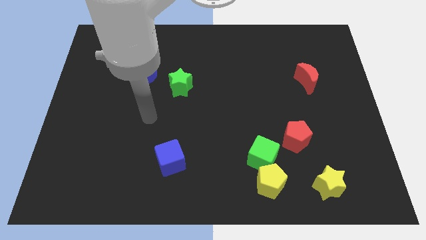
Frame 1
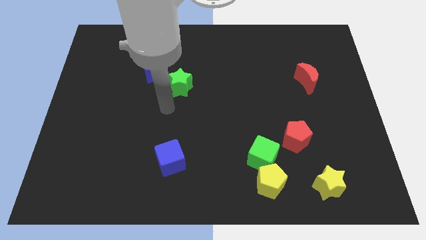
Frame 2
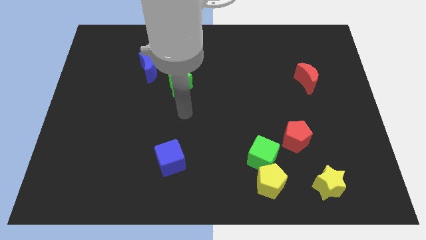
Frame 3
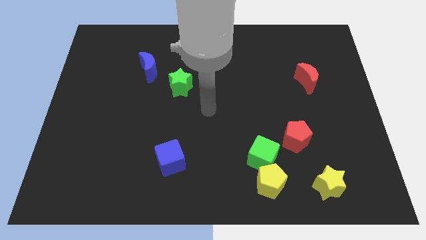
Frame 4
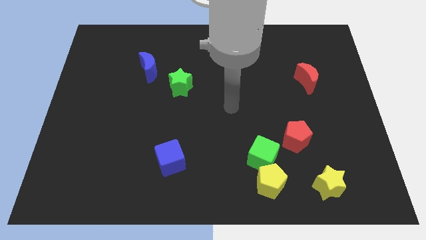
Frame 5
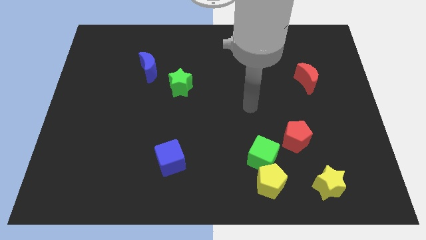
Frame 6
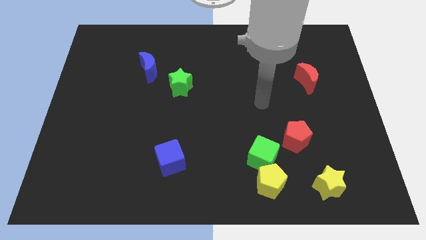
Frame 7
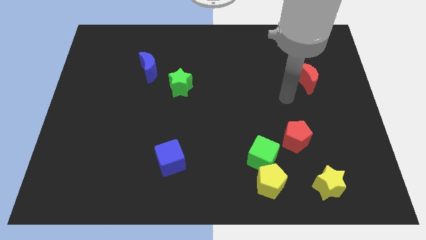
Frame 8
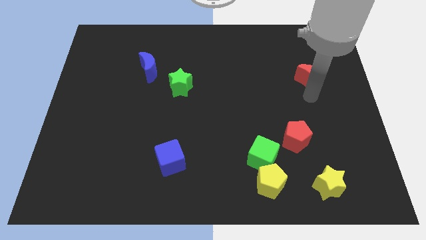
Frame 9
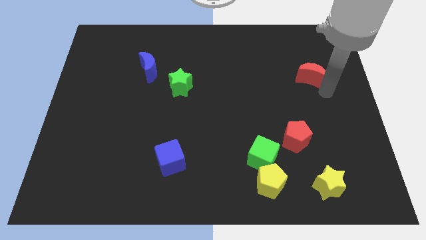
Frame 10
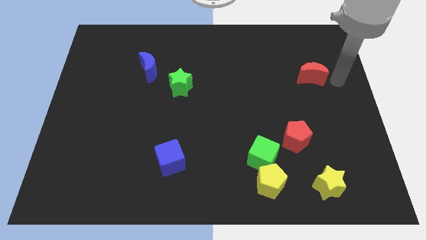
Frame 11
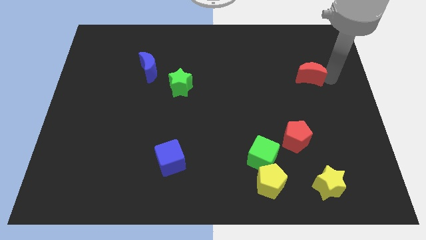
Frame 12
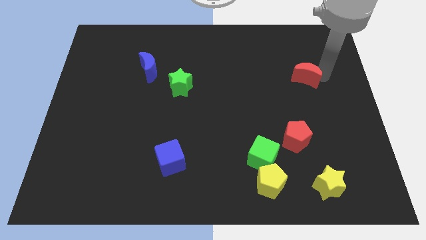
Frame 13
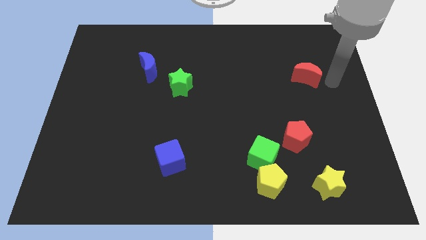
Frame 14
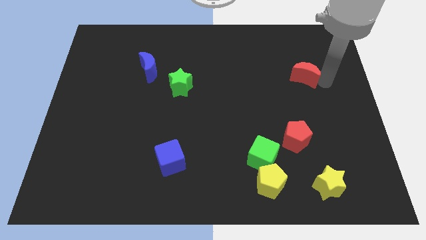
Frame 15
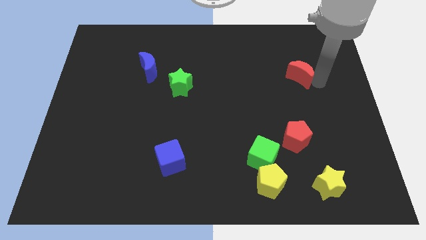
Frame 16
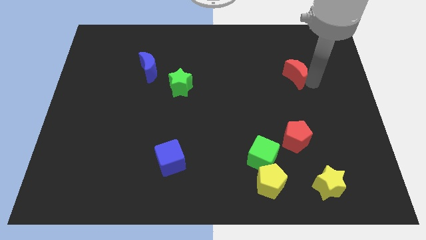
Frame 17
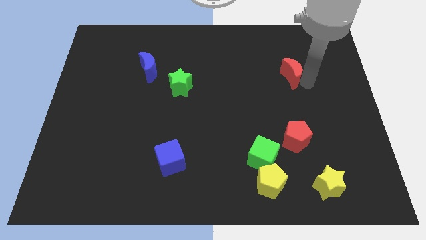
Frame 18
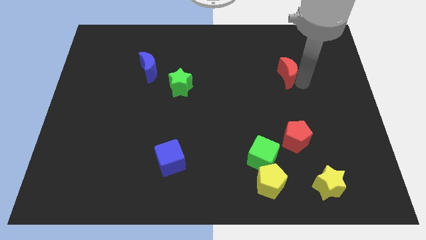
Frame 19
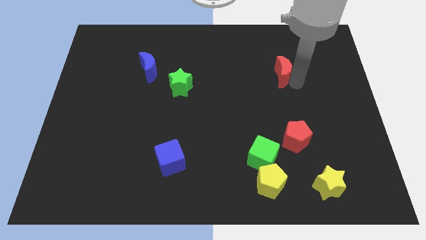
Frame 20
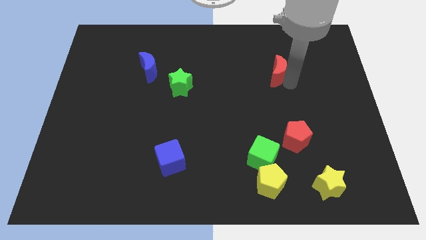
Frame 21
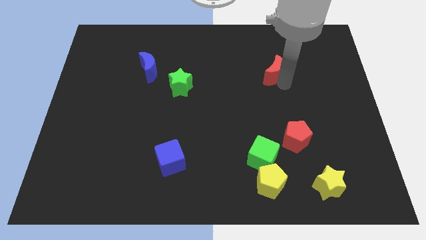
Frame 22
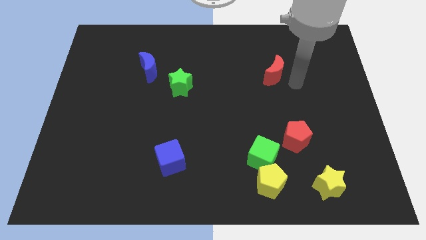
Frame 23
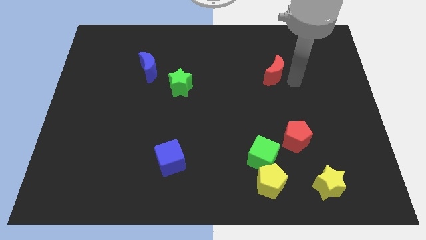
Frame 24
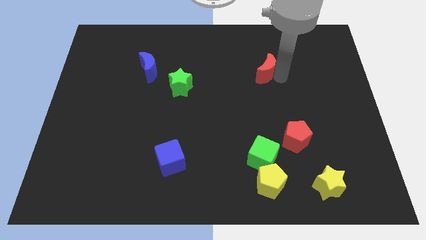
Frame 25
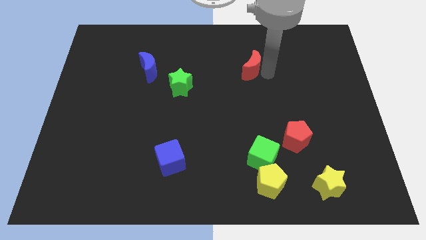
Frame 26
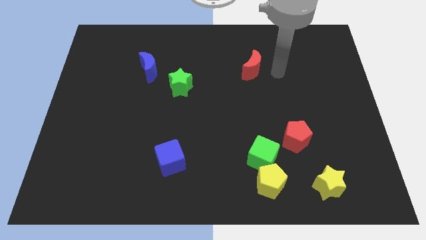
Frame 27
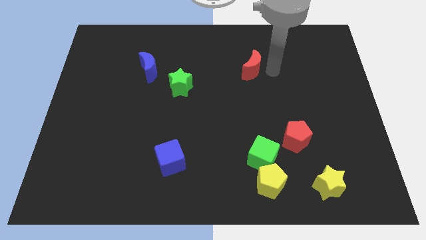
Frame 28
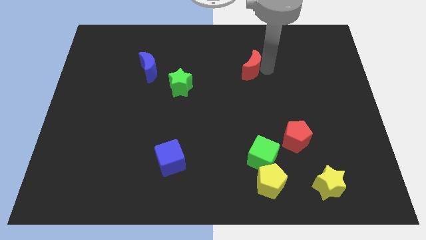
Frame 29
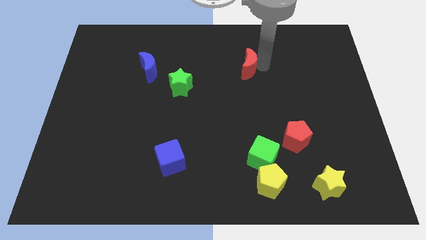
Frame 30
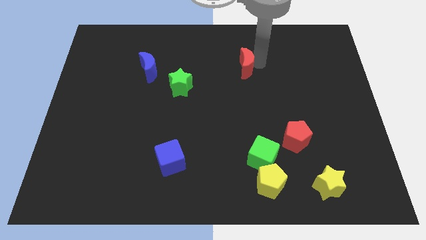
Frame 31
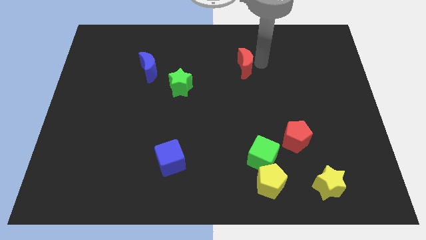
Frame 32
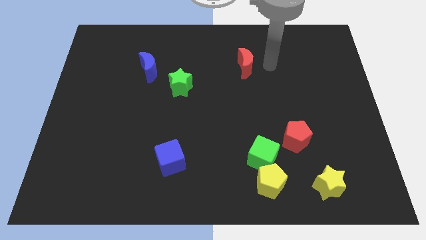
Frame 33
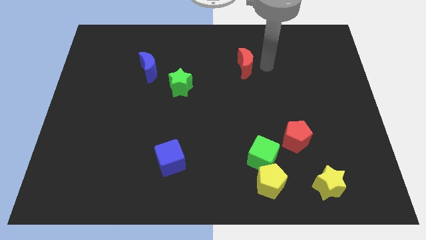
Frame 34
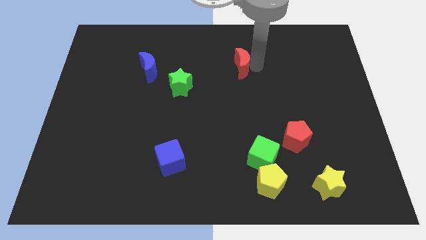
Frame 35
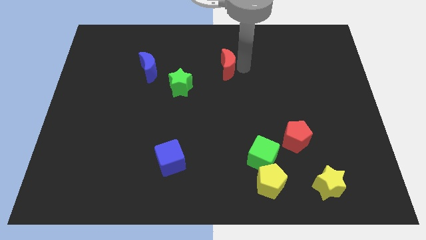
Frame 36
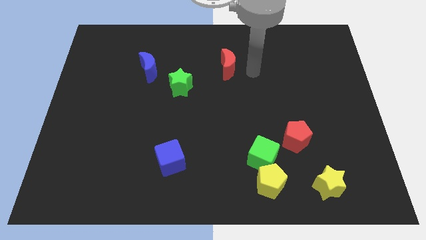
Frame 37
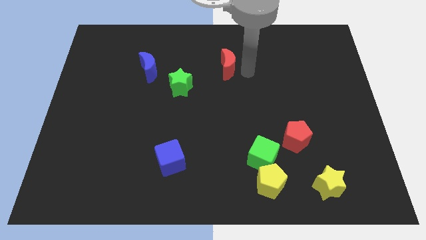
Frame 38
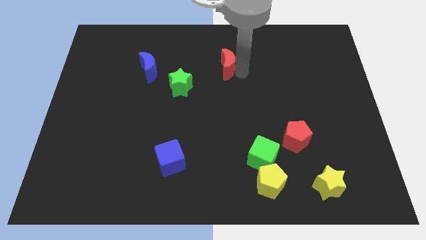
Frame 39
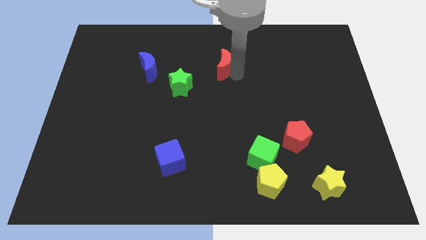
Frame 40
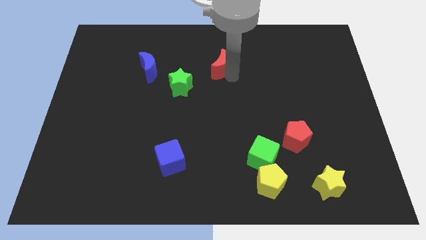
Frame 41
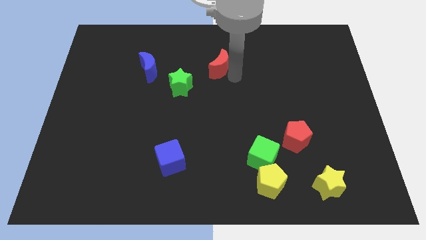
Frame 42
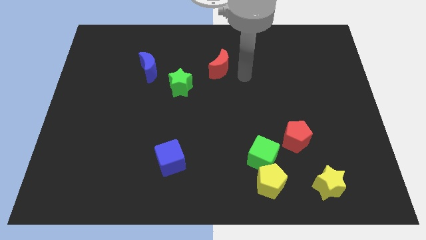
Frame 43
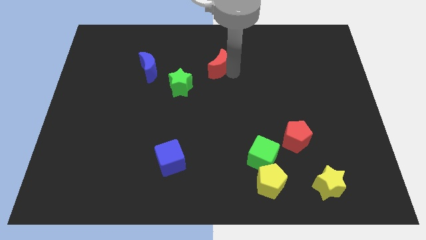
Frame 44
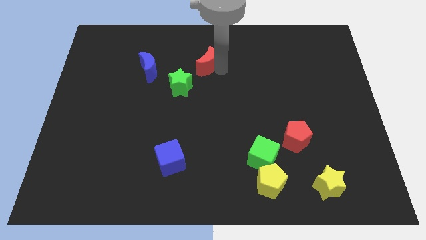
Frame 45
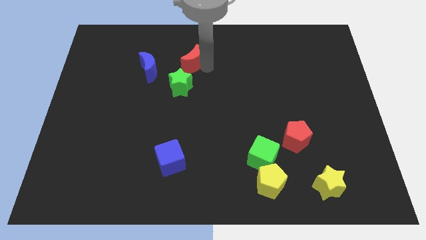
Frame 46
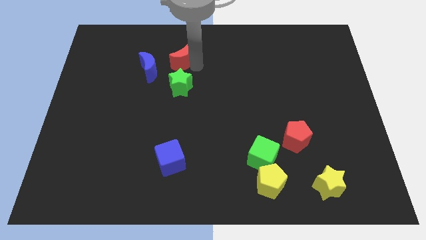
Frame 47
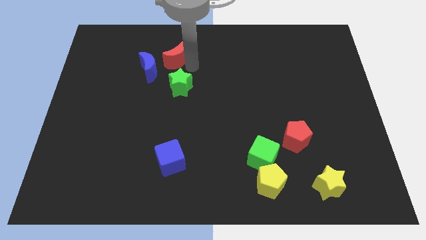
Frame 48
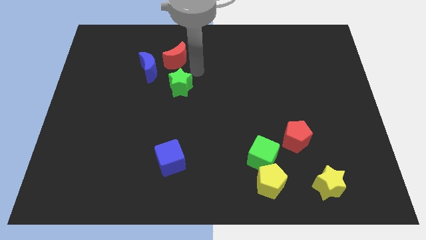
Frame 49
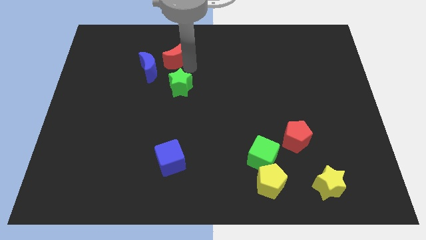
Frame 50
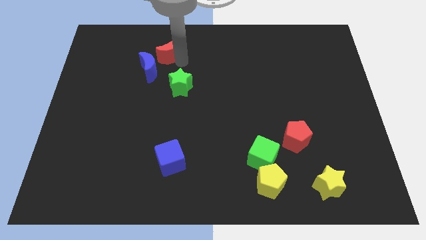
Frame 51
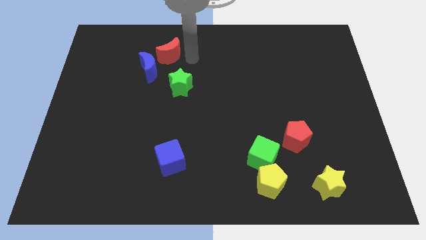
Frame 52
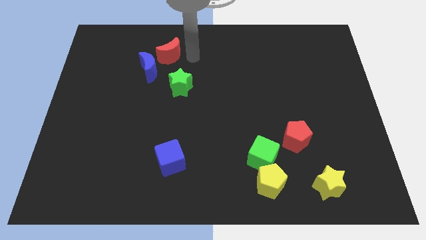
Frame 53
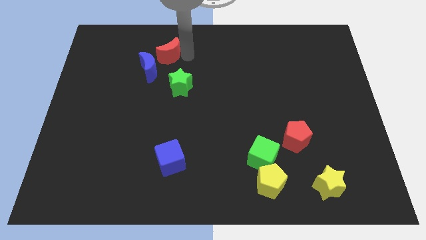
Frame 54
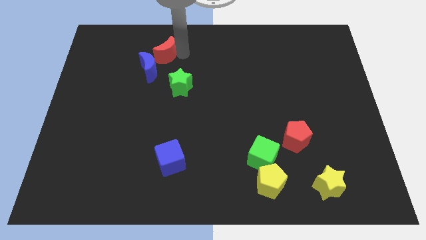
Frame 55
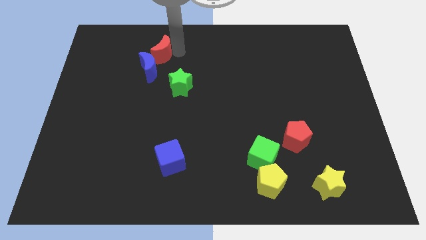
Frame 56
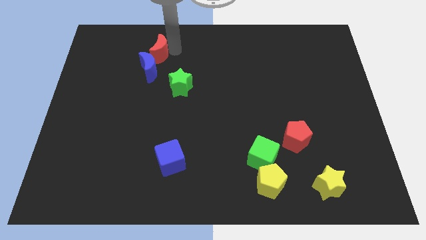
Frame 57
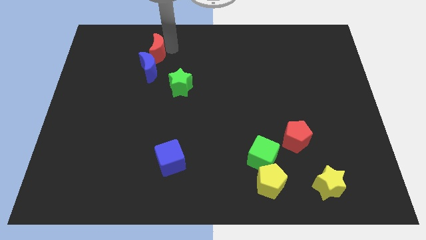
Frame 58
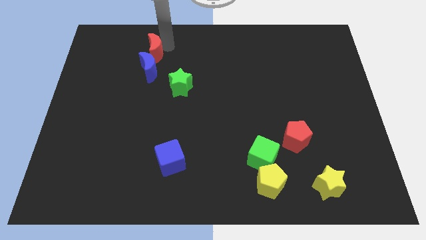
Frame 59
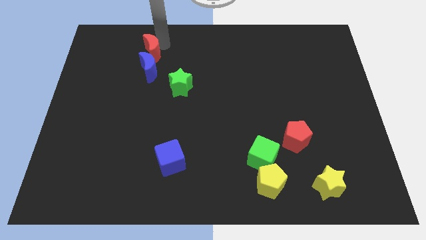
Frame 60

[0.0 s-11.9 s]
push the red moon to the top left of the blue moon

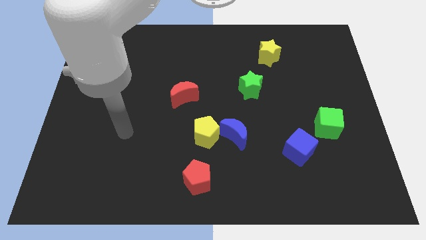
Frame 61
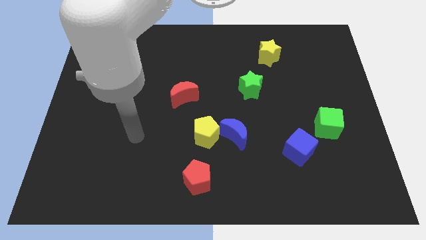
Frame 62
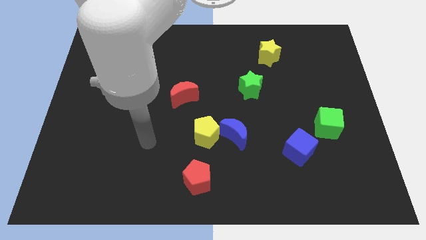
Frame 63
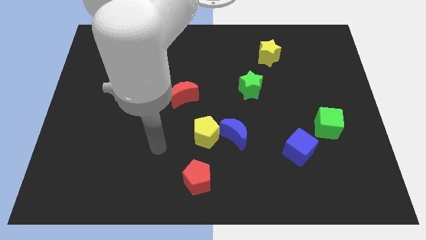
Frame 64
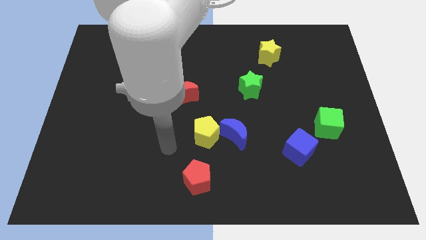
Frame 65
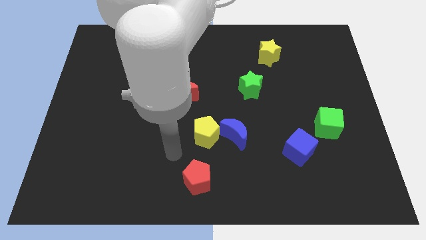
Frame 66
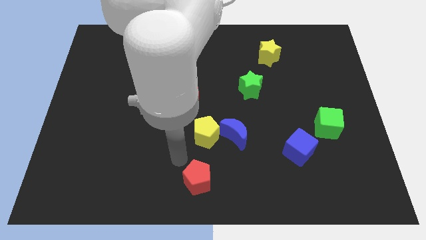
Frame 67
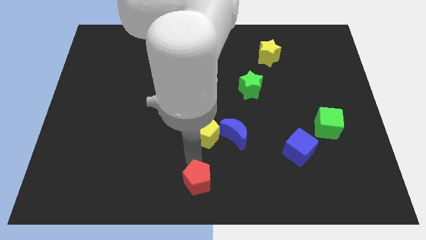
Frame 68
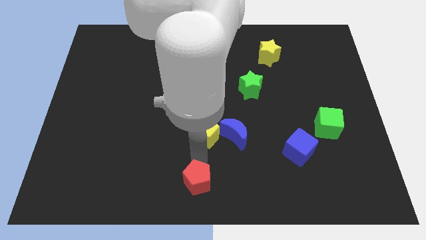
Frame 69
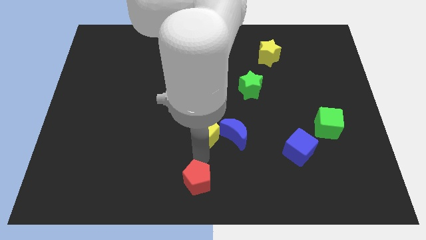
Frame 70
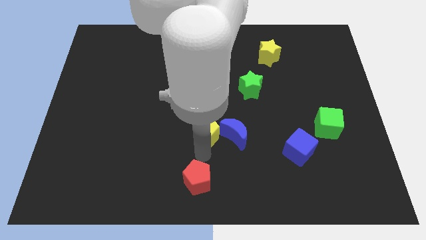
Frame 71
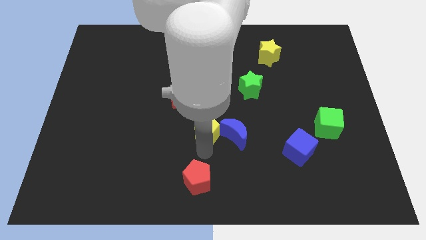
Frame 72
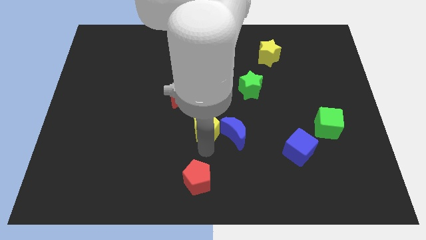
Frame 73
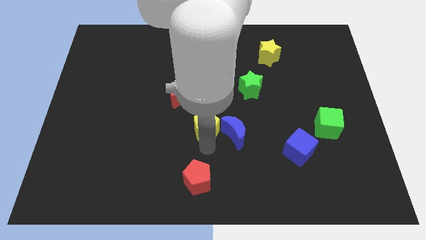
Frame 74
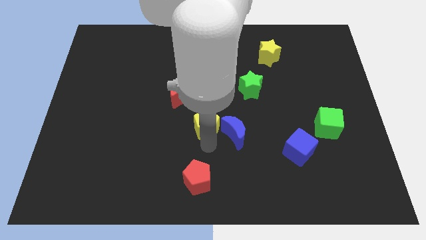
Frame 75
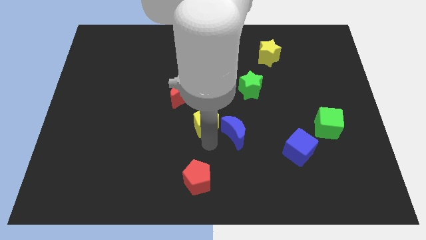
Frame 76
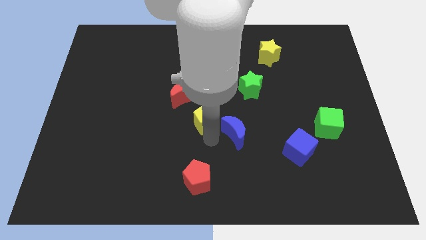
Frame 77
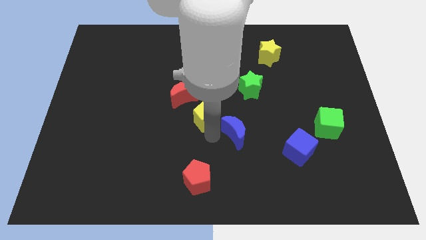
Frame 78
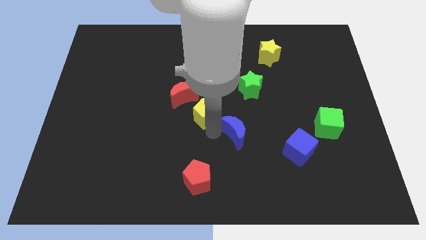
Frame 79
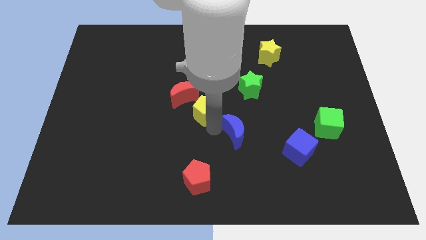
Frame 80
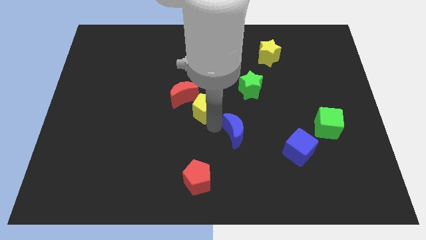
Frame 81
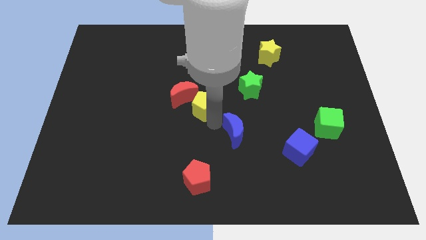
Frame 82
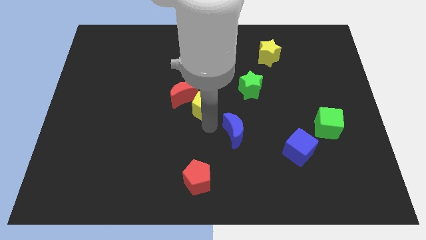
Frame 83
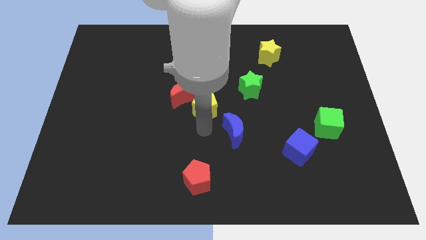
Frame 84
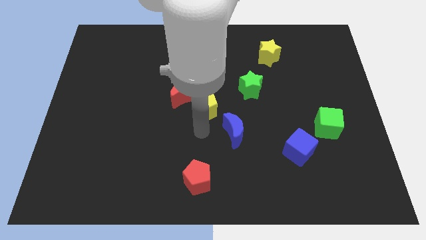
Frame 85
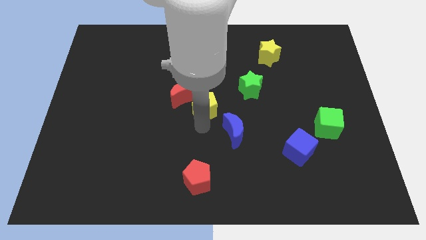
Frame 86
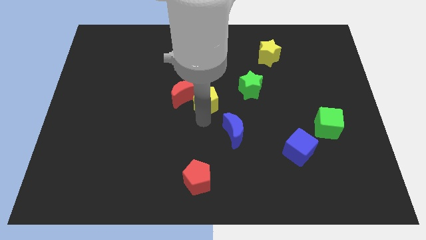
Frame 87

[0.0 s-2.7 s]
push the yellow pentagon left of the green star
